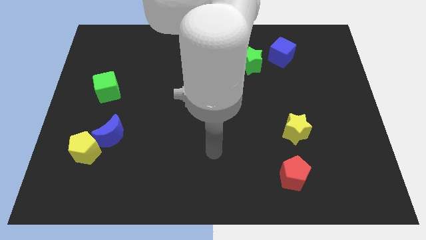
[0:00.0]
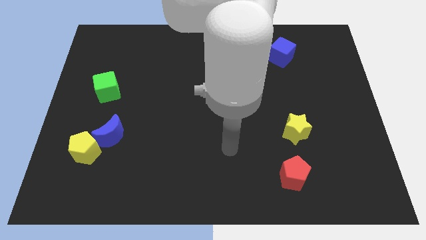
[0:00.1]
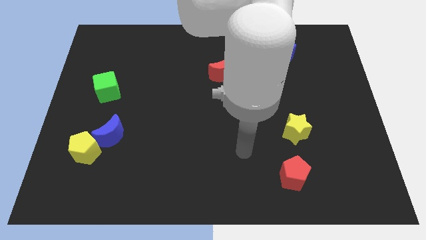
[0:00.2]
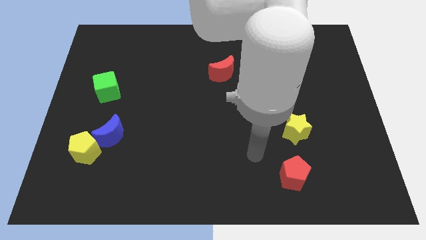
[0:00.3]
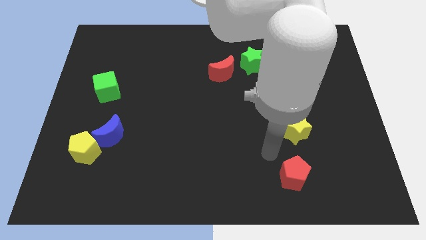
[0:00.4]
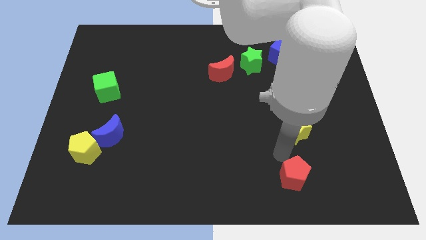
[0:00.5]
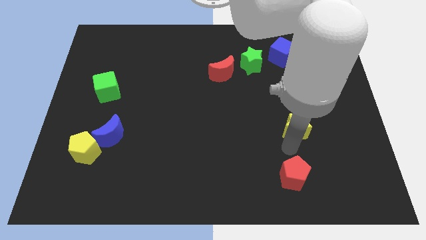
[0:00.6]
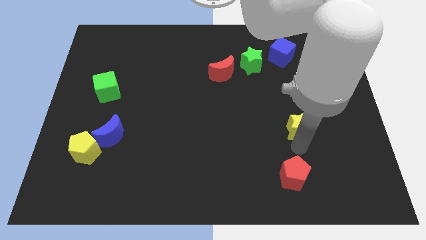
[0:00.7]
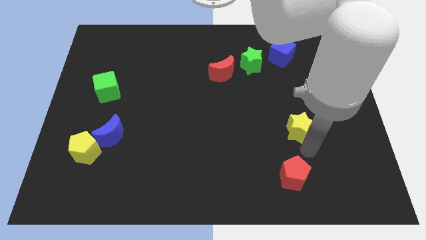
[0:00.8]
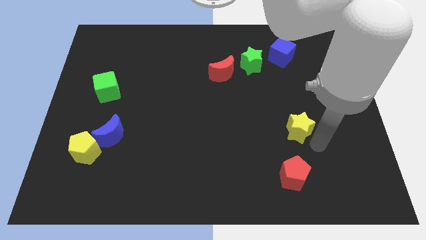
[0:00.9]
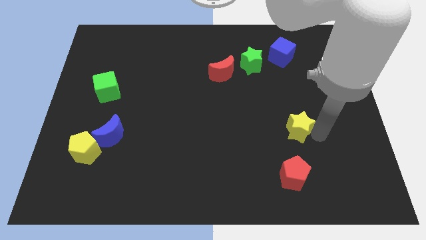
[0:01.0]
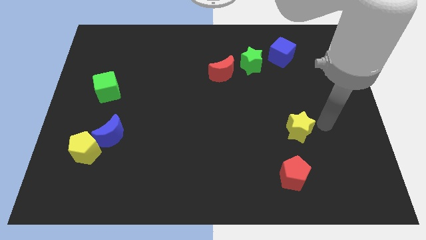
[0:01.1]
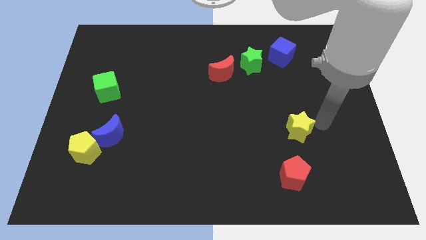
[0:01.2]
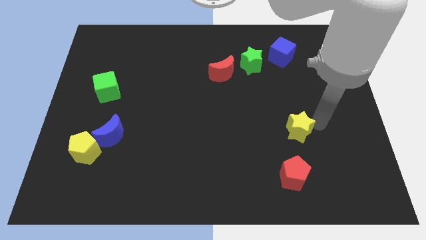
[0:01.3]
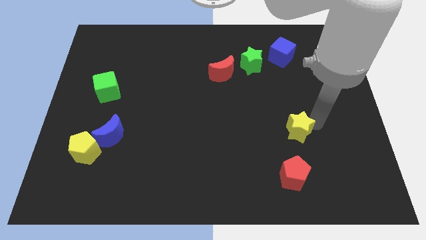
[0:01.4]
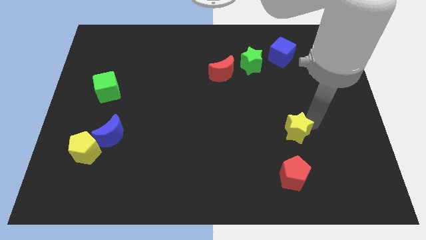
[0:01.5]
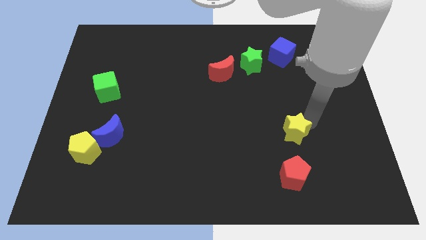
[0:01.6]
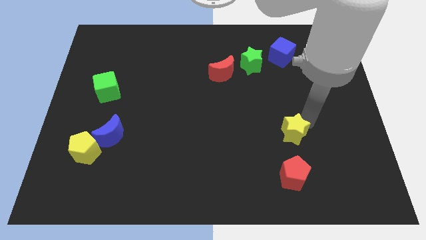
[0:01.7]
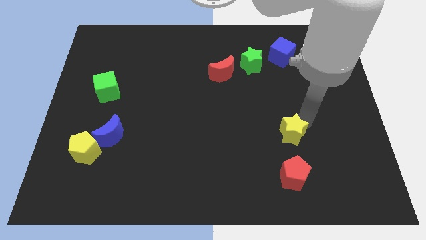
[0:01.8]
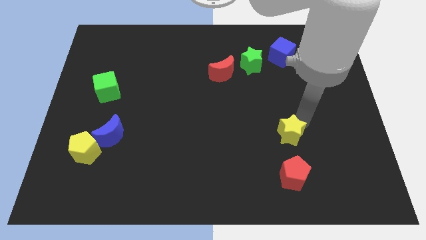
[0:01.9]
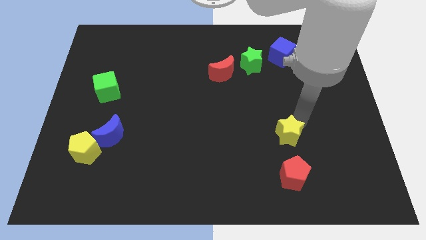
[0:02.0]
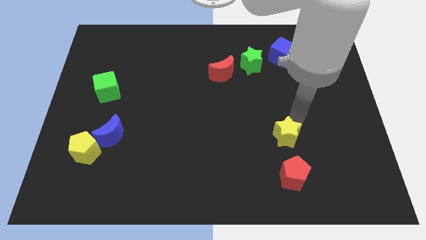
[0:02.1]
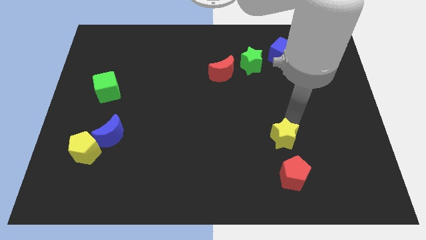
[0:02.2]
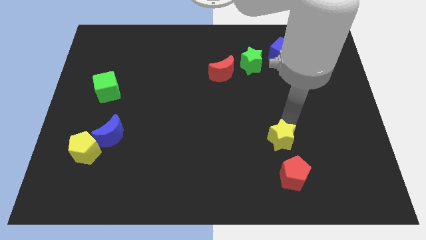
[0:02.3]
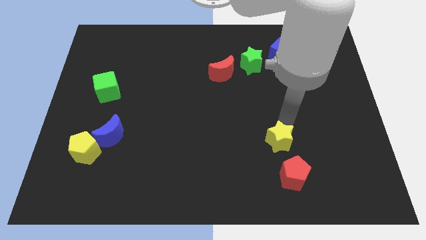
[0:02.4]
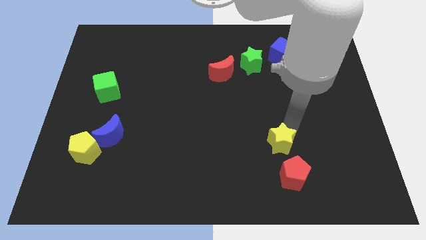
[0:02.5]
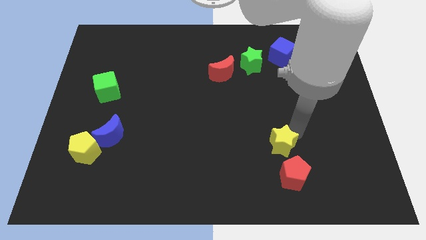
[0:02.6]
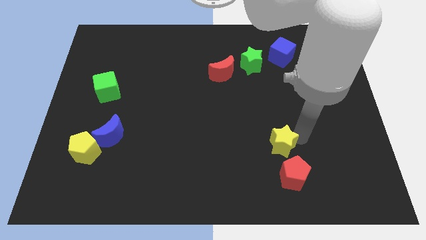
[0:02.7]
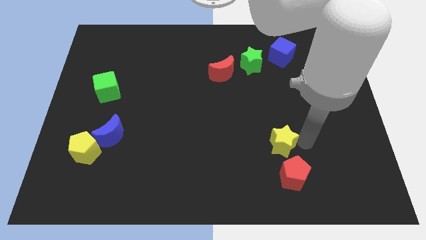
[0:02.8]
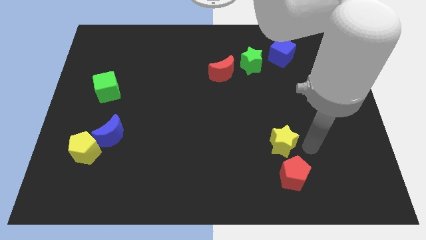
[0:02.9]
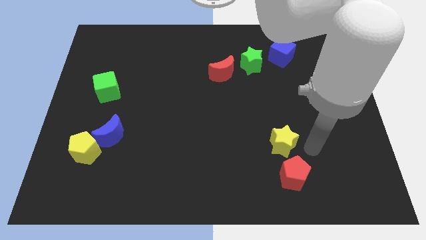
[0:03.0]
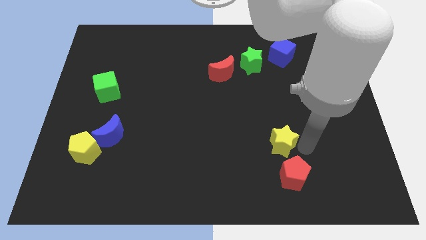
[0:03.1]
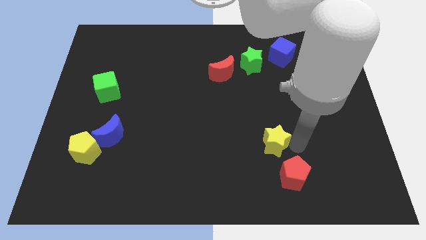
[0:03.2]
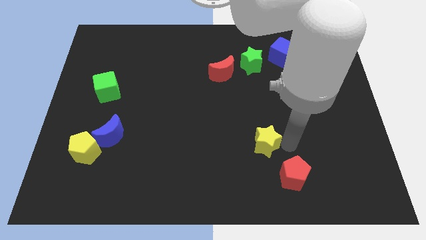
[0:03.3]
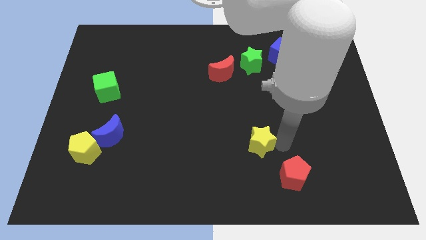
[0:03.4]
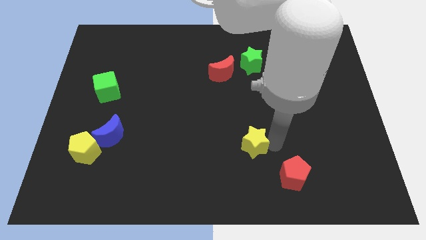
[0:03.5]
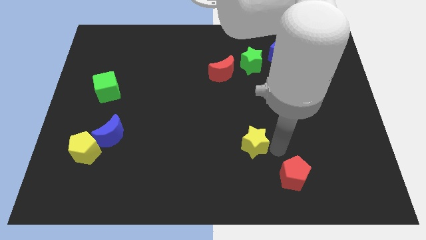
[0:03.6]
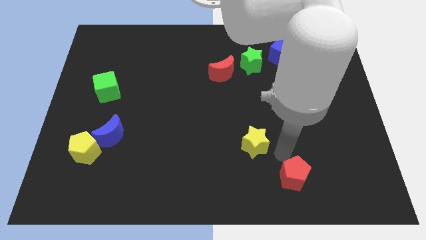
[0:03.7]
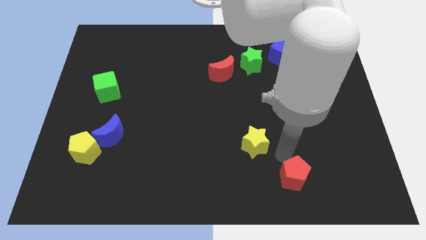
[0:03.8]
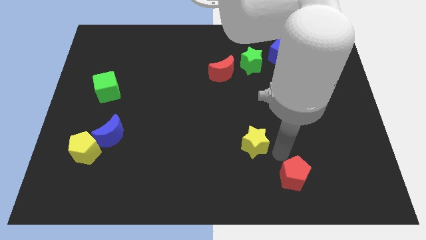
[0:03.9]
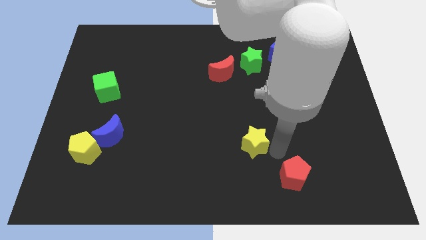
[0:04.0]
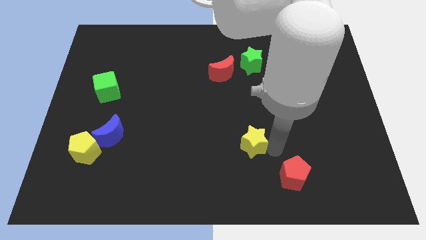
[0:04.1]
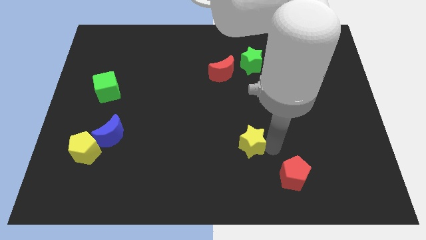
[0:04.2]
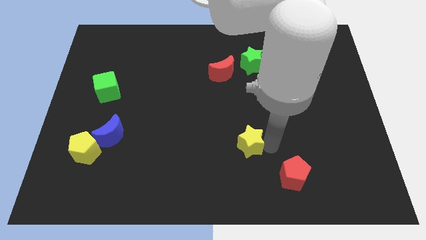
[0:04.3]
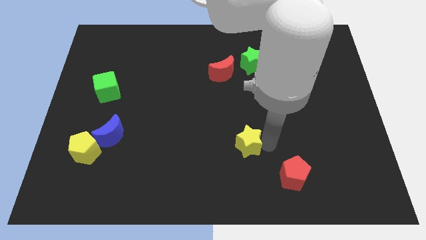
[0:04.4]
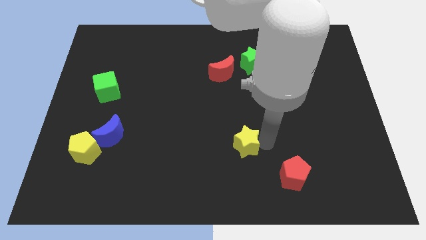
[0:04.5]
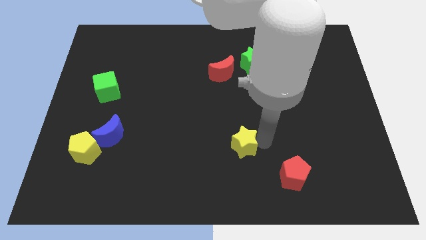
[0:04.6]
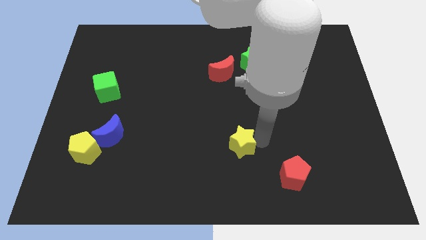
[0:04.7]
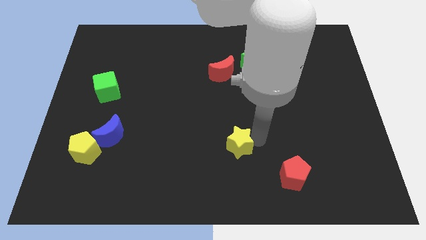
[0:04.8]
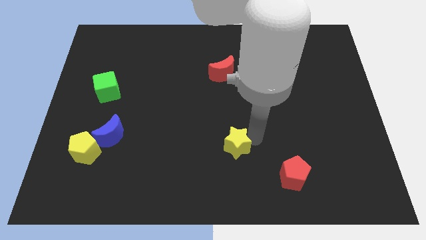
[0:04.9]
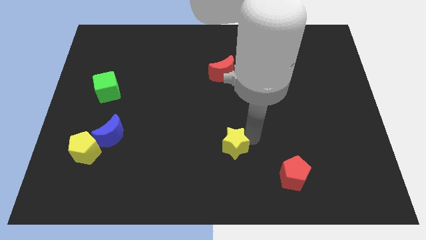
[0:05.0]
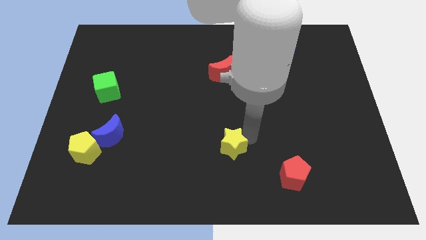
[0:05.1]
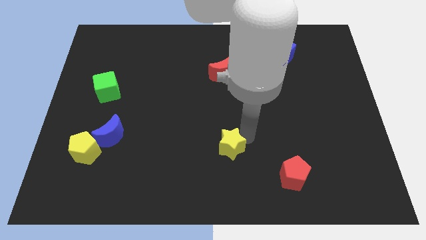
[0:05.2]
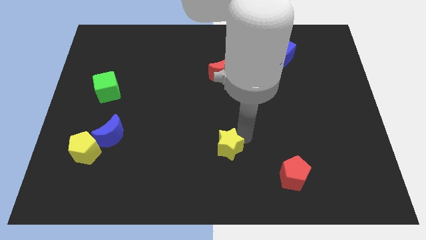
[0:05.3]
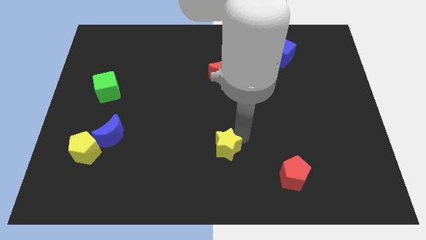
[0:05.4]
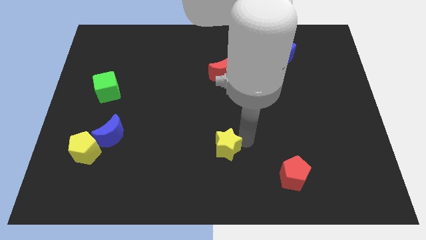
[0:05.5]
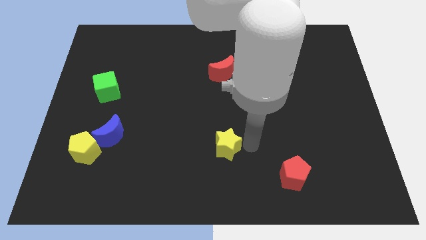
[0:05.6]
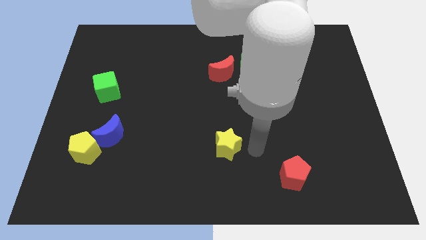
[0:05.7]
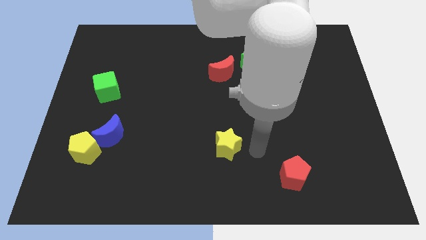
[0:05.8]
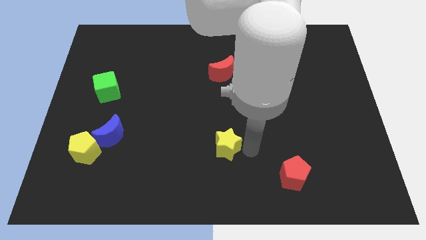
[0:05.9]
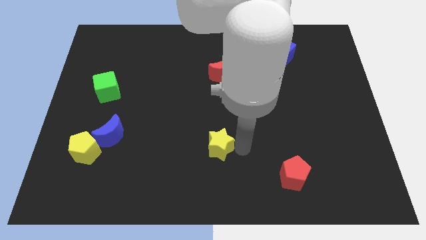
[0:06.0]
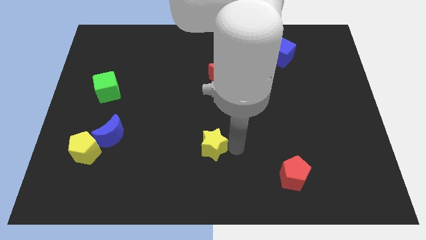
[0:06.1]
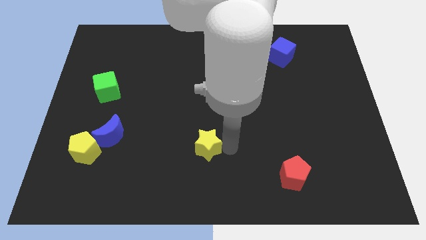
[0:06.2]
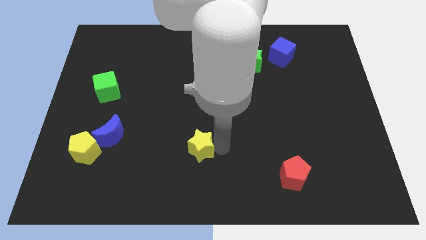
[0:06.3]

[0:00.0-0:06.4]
push the yellow star left

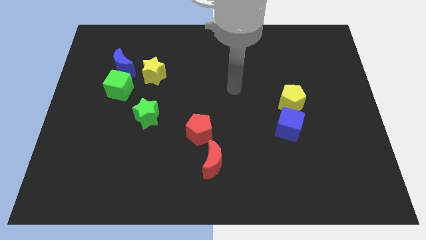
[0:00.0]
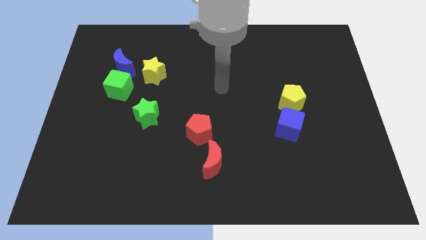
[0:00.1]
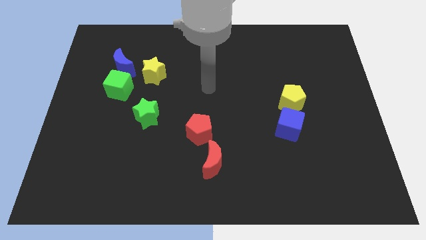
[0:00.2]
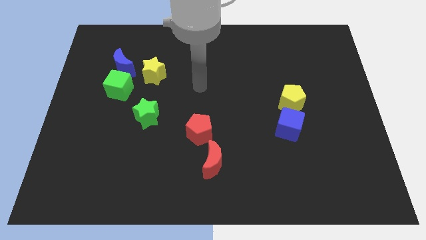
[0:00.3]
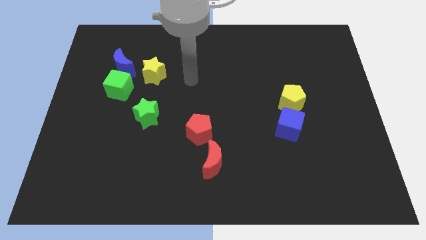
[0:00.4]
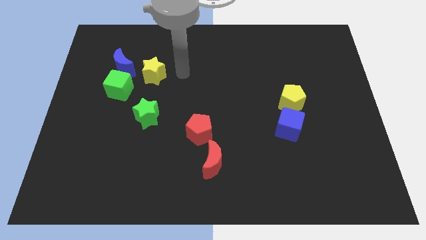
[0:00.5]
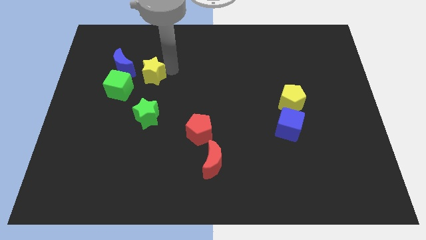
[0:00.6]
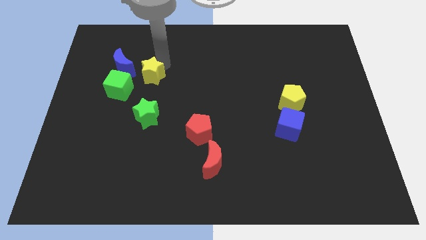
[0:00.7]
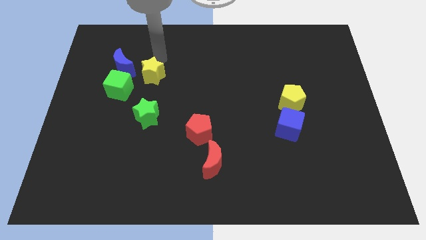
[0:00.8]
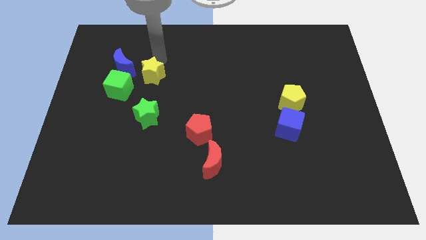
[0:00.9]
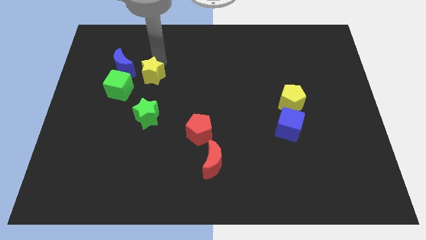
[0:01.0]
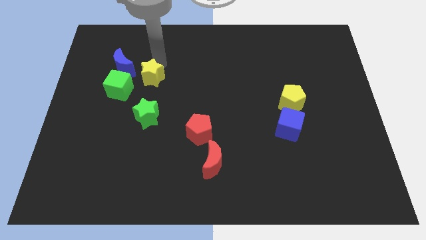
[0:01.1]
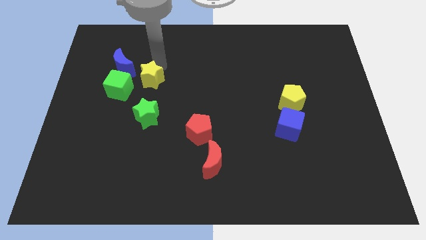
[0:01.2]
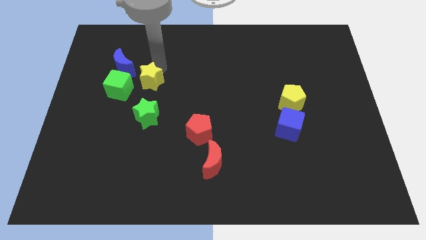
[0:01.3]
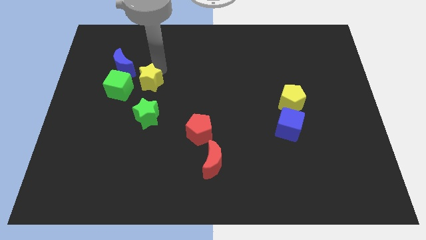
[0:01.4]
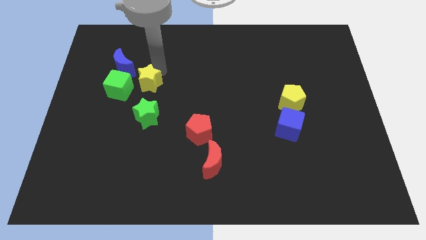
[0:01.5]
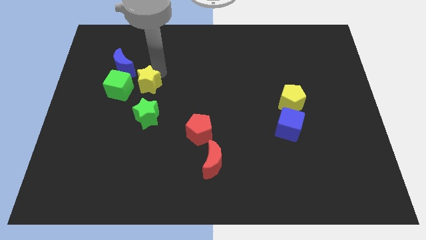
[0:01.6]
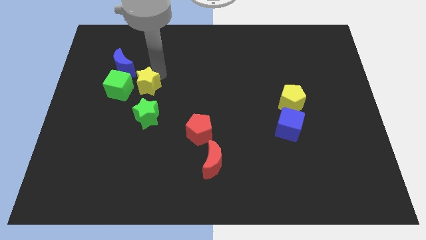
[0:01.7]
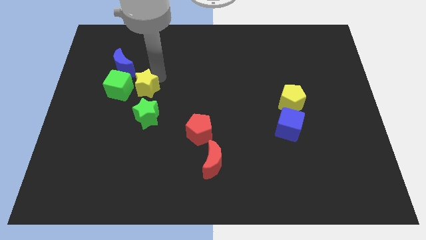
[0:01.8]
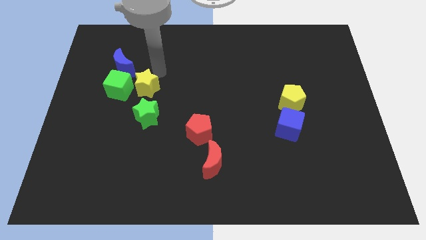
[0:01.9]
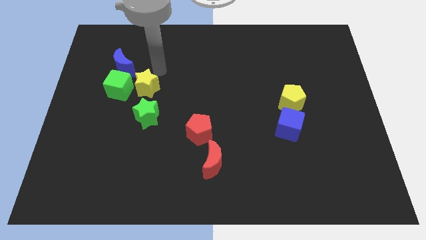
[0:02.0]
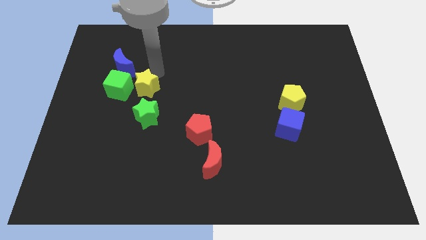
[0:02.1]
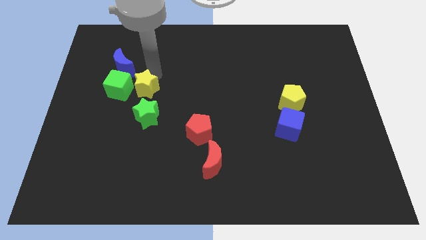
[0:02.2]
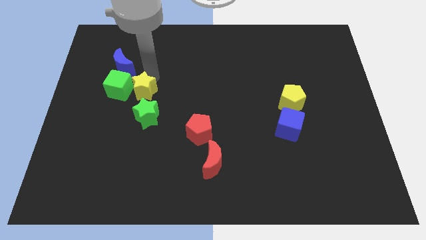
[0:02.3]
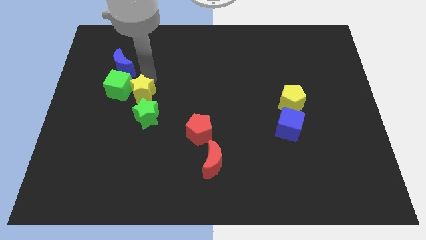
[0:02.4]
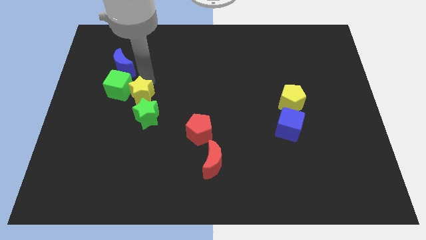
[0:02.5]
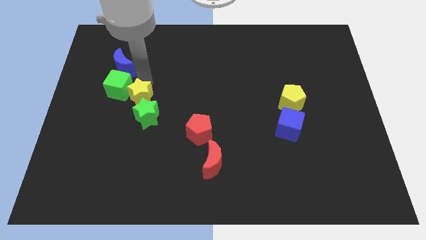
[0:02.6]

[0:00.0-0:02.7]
move the yellow star a little downwards
